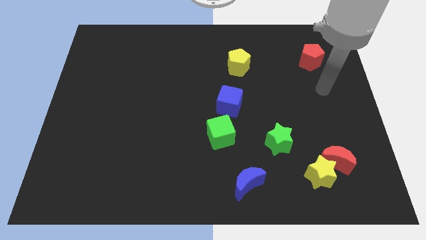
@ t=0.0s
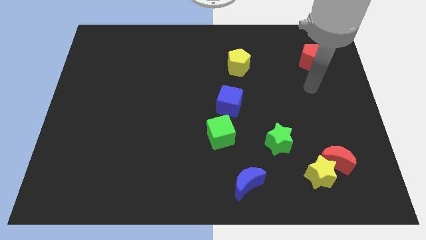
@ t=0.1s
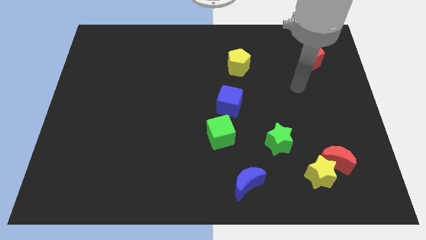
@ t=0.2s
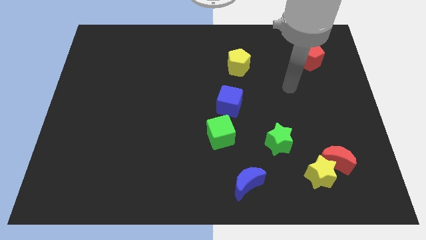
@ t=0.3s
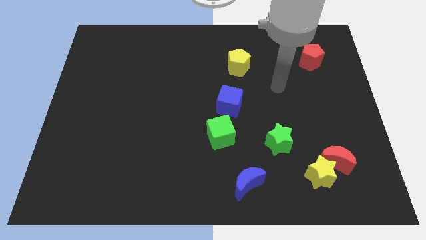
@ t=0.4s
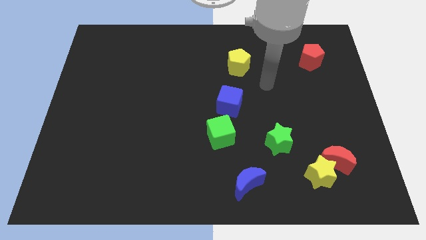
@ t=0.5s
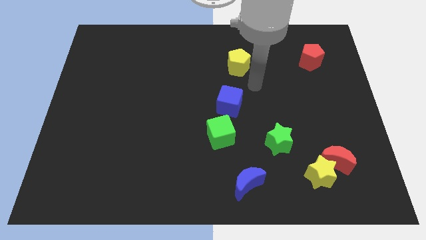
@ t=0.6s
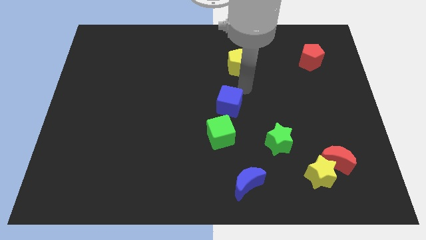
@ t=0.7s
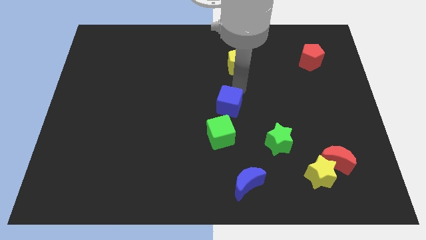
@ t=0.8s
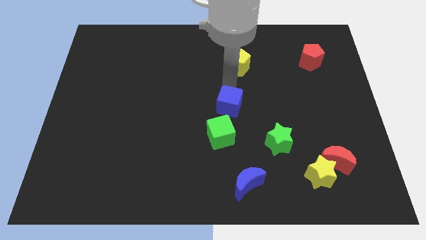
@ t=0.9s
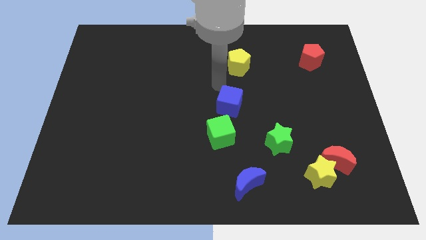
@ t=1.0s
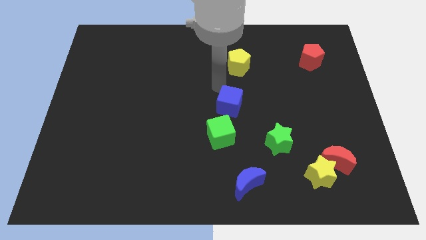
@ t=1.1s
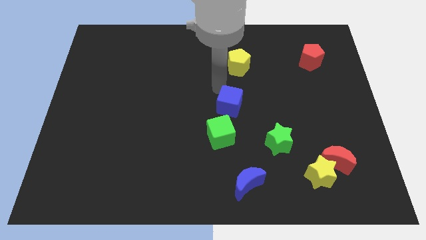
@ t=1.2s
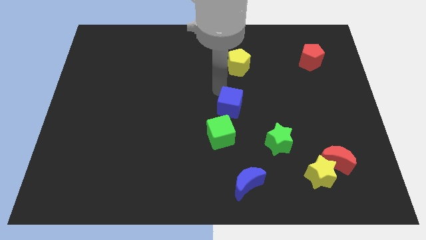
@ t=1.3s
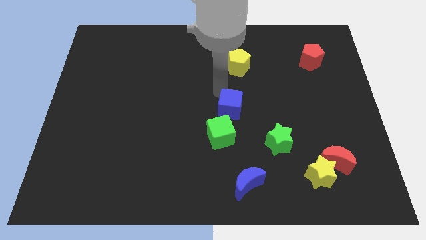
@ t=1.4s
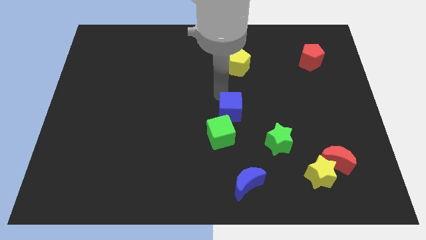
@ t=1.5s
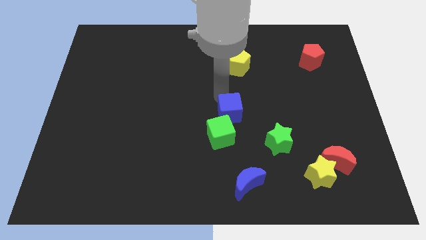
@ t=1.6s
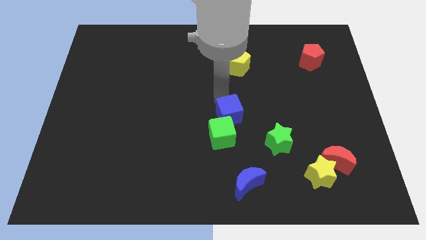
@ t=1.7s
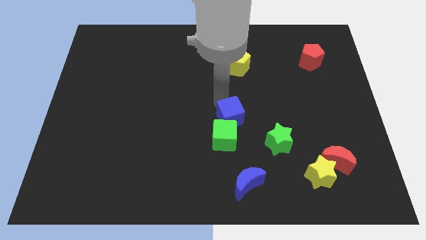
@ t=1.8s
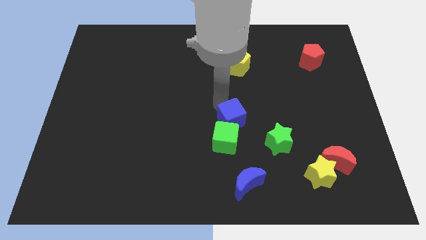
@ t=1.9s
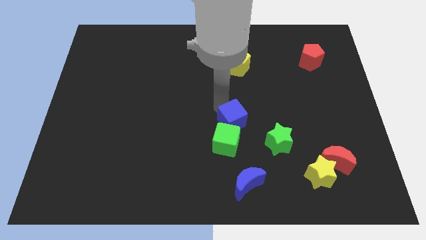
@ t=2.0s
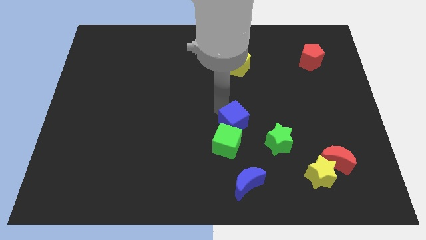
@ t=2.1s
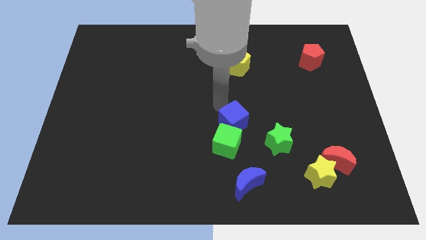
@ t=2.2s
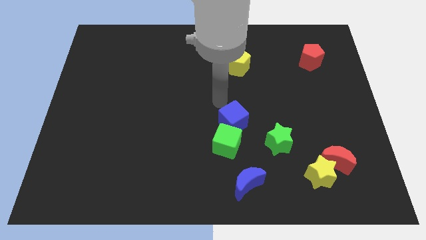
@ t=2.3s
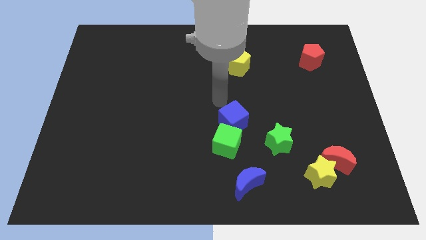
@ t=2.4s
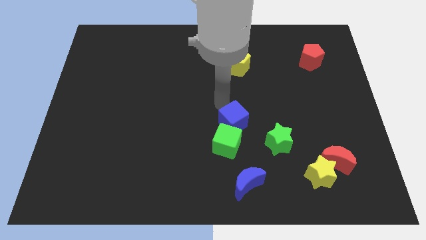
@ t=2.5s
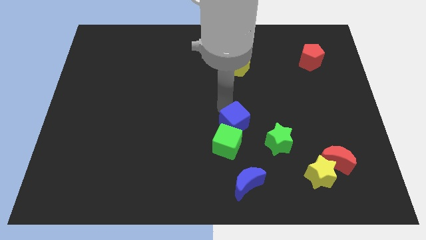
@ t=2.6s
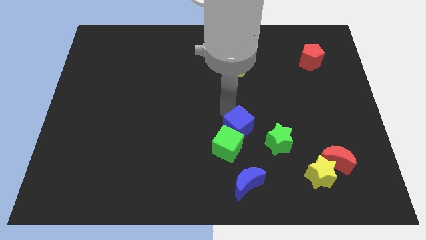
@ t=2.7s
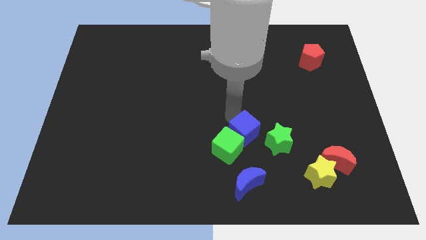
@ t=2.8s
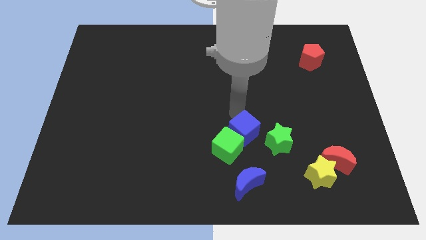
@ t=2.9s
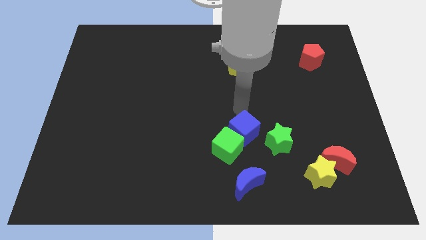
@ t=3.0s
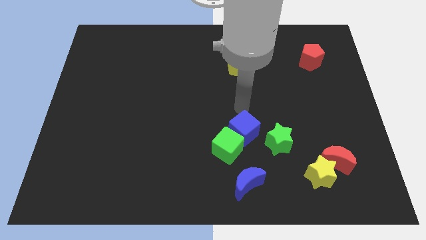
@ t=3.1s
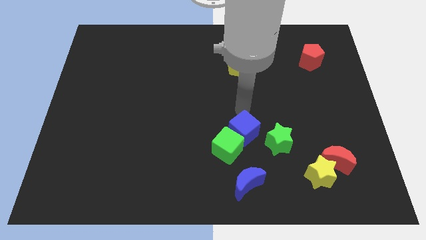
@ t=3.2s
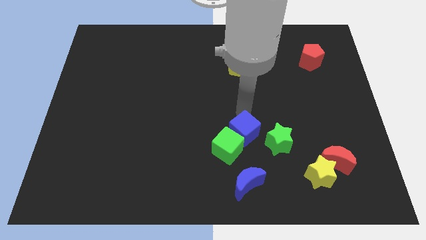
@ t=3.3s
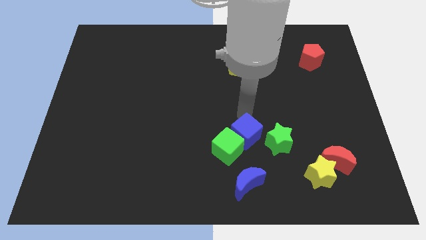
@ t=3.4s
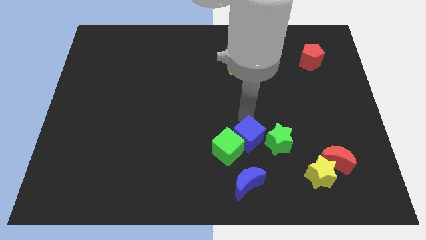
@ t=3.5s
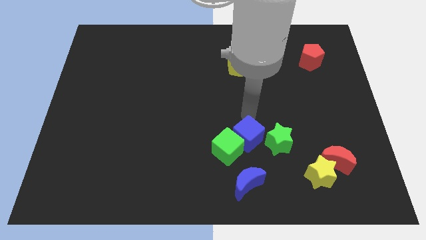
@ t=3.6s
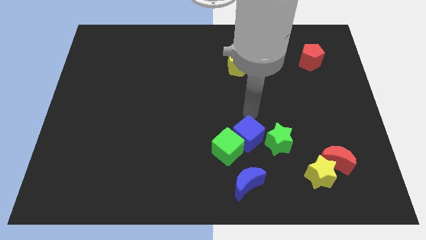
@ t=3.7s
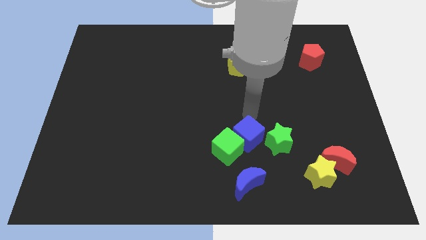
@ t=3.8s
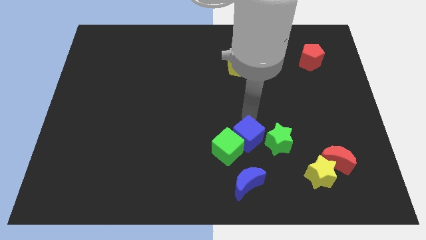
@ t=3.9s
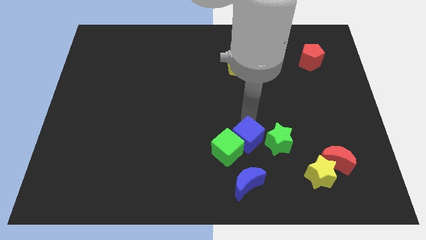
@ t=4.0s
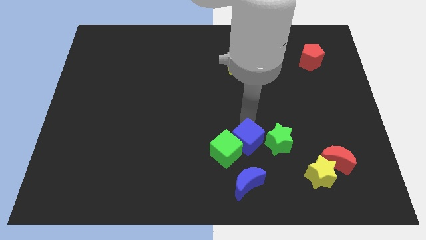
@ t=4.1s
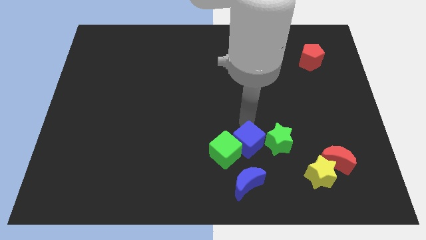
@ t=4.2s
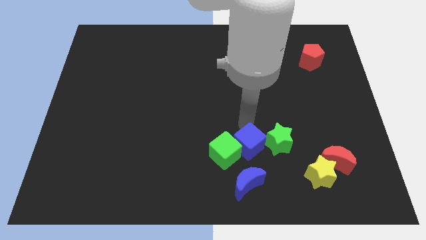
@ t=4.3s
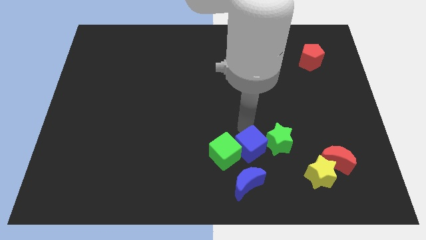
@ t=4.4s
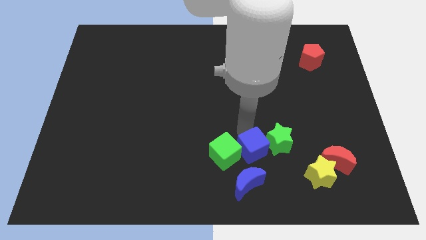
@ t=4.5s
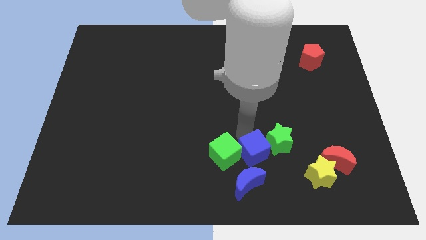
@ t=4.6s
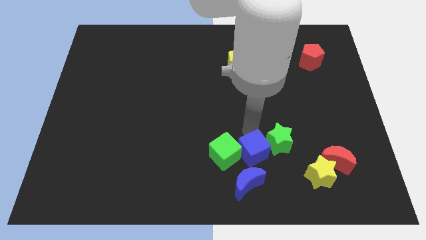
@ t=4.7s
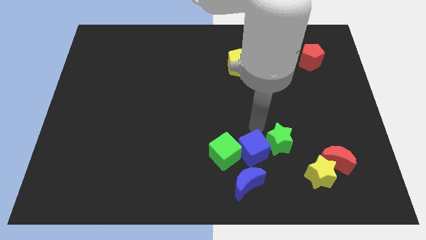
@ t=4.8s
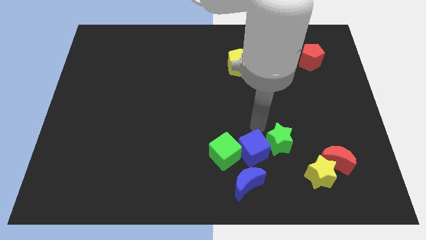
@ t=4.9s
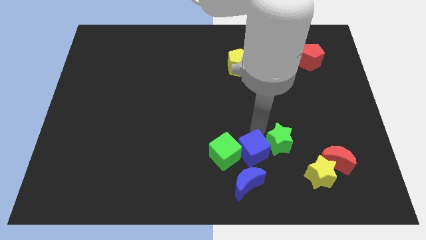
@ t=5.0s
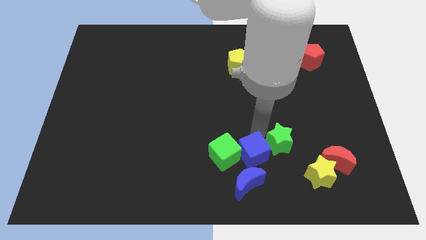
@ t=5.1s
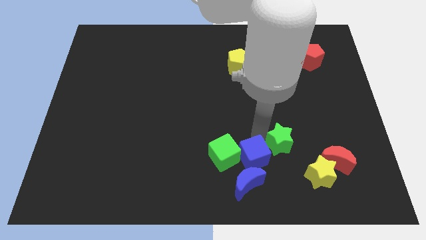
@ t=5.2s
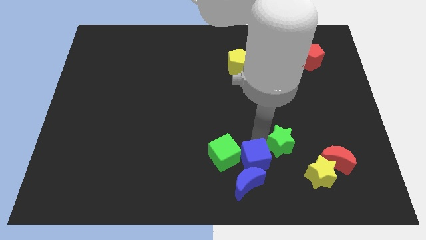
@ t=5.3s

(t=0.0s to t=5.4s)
put the blue cube towards the blue moon

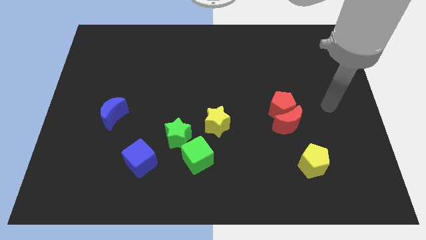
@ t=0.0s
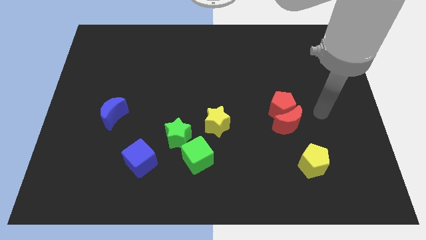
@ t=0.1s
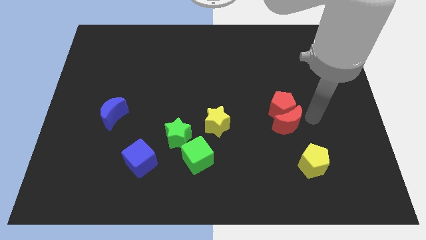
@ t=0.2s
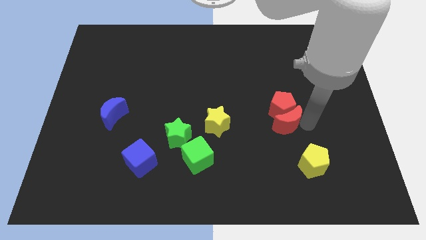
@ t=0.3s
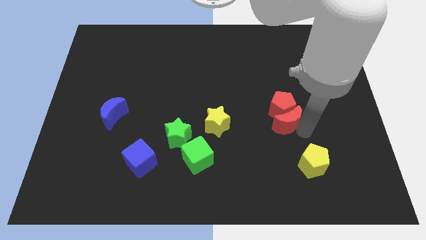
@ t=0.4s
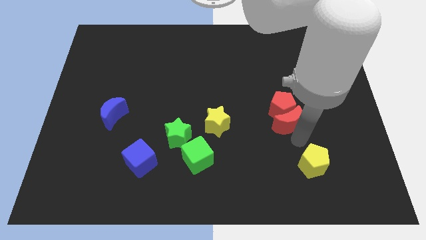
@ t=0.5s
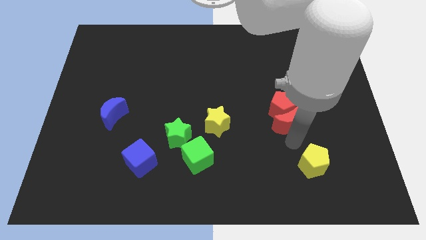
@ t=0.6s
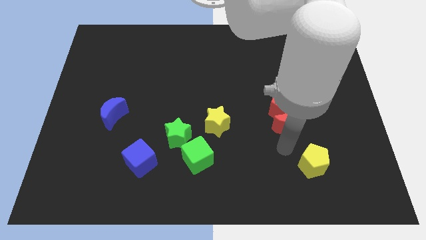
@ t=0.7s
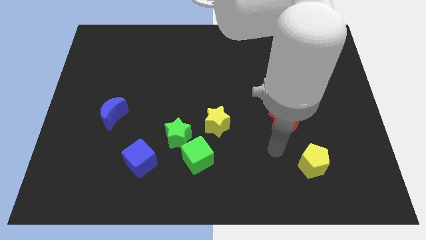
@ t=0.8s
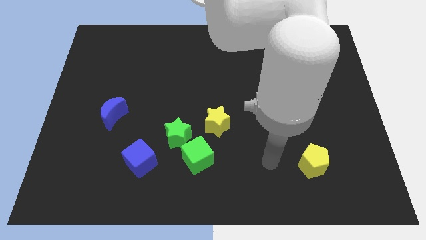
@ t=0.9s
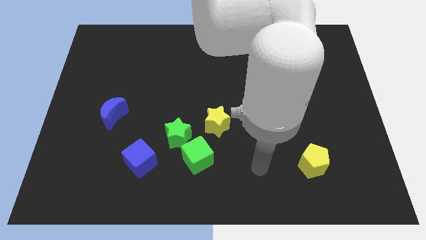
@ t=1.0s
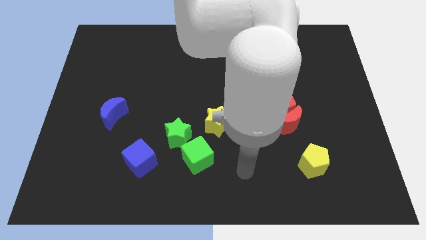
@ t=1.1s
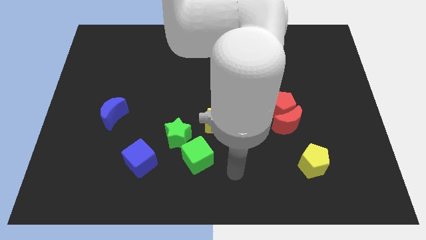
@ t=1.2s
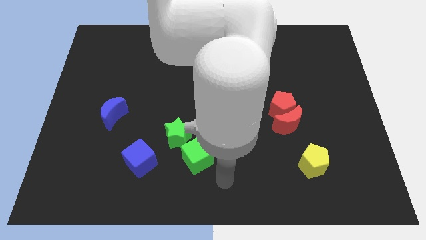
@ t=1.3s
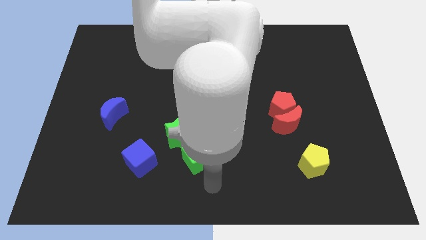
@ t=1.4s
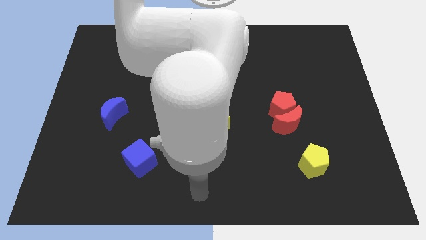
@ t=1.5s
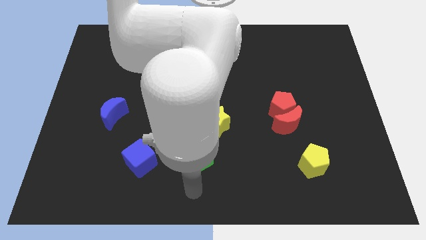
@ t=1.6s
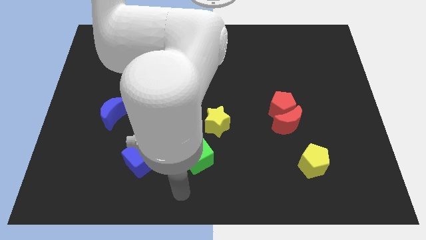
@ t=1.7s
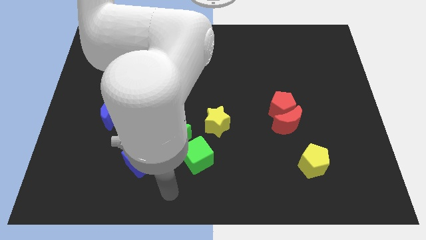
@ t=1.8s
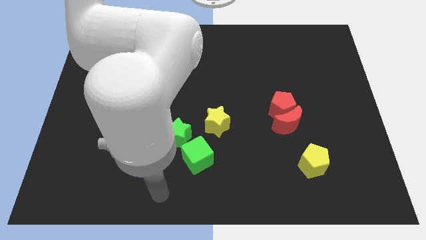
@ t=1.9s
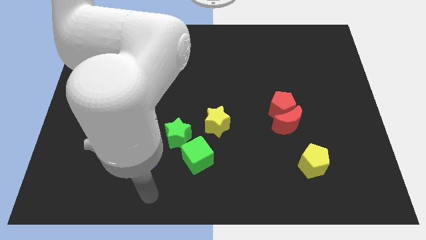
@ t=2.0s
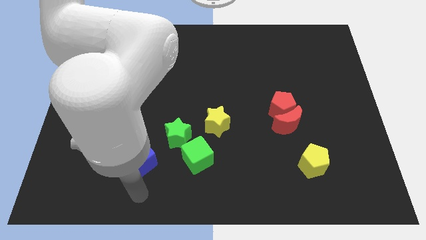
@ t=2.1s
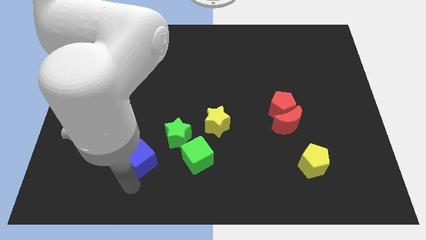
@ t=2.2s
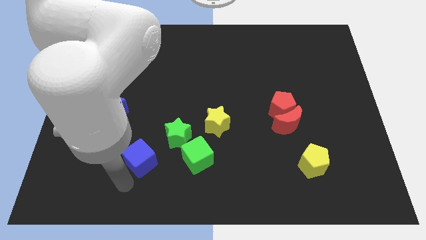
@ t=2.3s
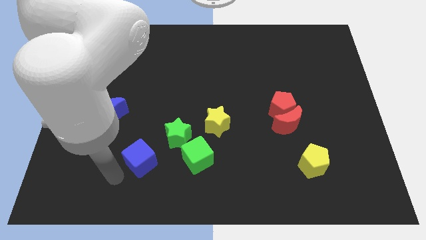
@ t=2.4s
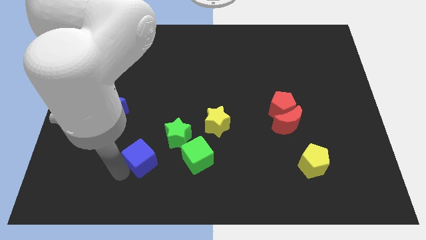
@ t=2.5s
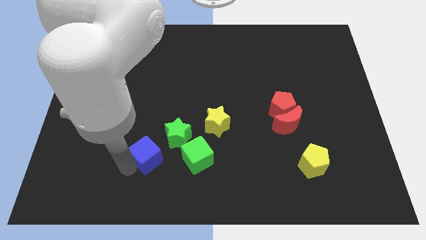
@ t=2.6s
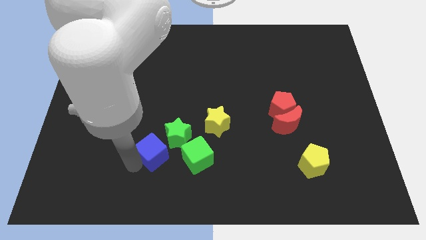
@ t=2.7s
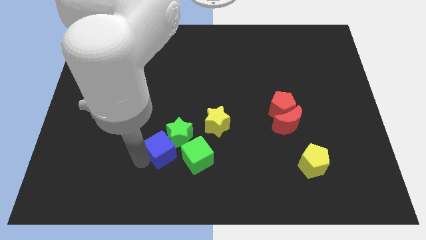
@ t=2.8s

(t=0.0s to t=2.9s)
push the blue cube next to the green star
